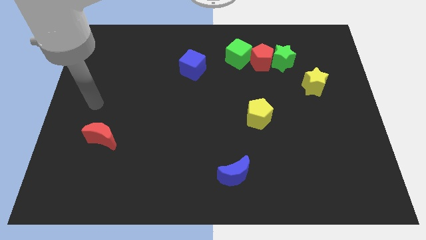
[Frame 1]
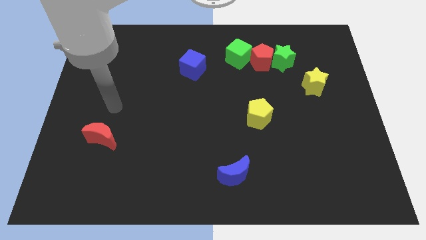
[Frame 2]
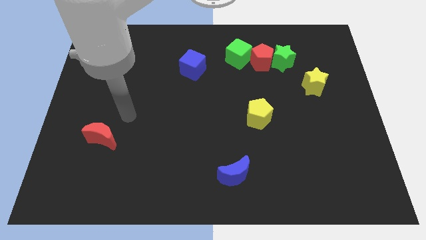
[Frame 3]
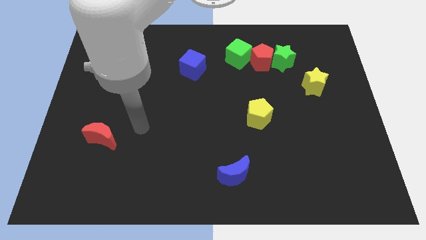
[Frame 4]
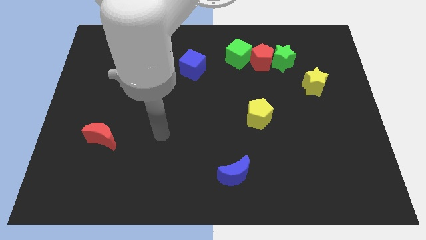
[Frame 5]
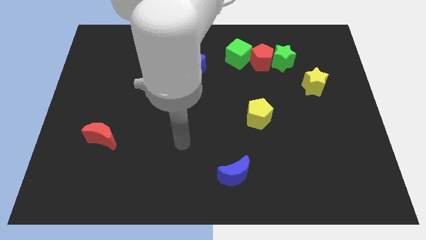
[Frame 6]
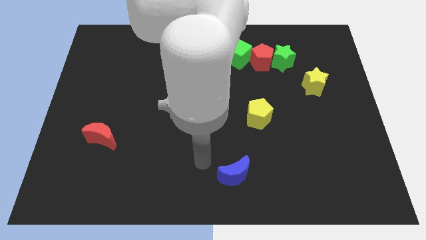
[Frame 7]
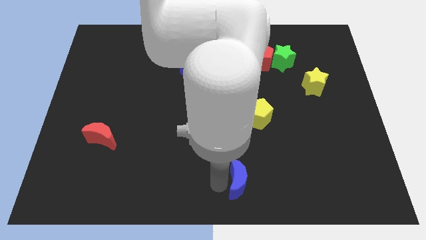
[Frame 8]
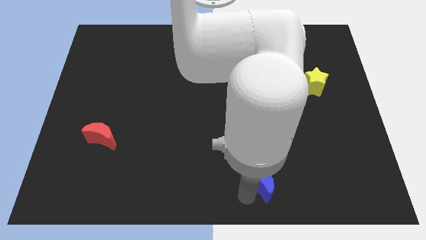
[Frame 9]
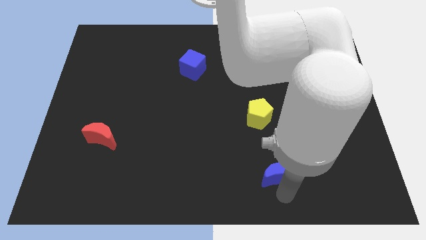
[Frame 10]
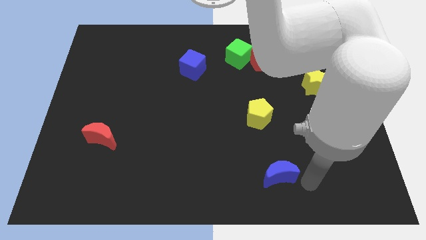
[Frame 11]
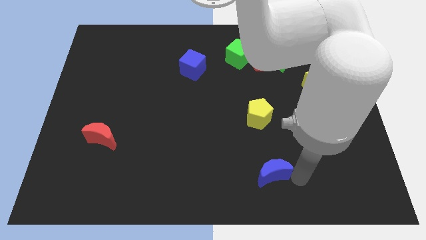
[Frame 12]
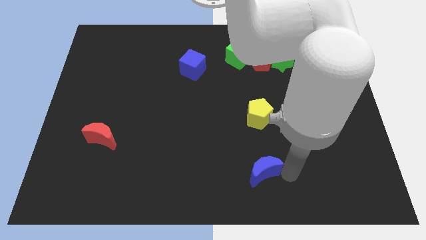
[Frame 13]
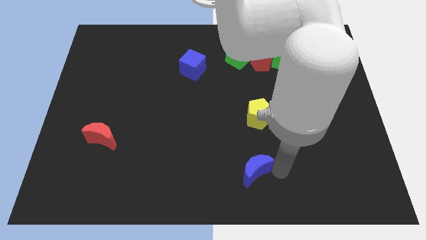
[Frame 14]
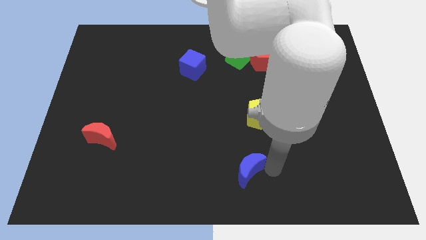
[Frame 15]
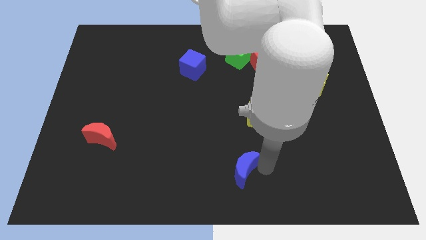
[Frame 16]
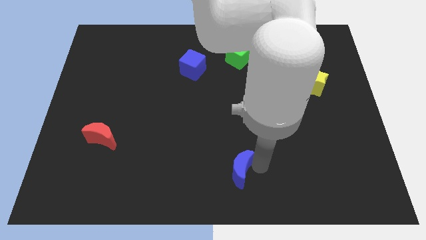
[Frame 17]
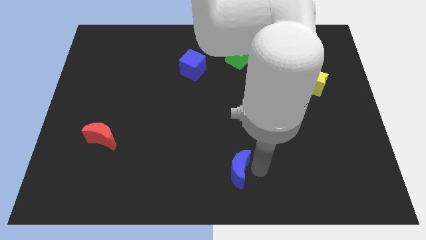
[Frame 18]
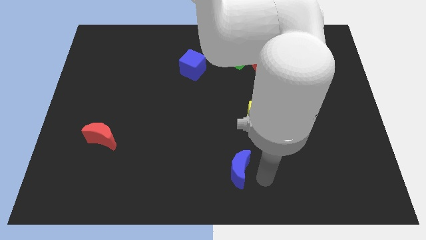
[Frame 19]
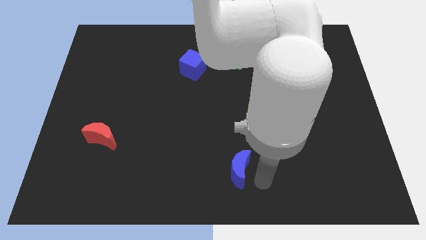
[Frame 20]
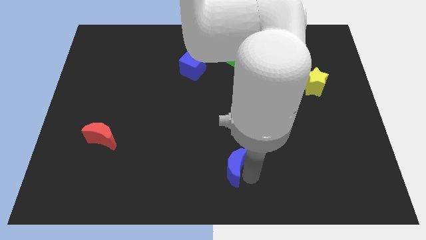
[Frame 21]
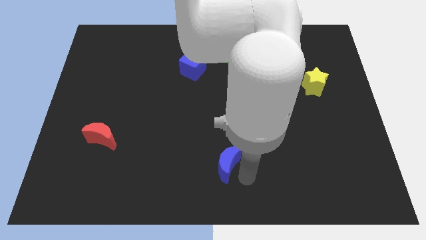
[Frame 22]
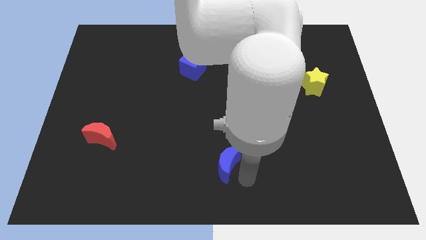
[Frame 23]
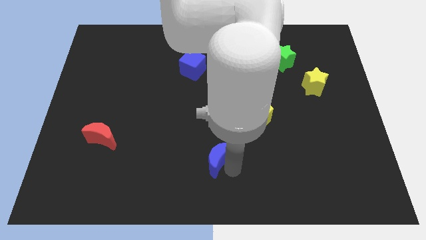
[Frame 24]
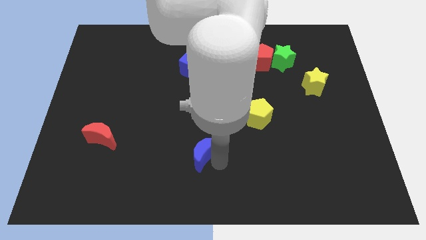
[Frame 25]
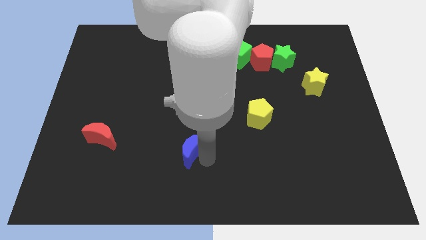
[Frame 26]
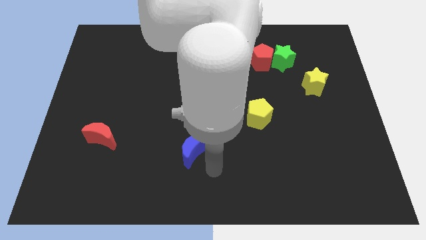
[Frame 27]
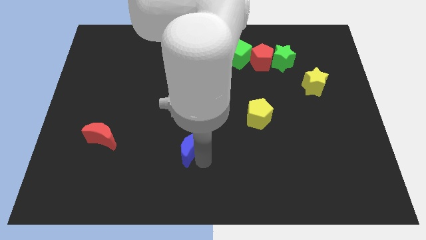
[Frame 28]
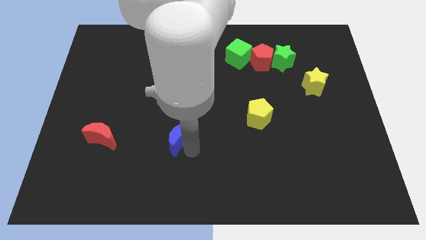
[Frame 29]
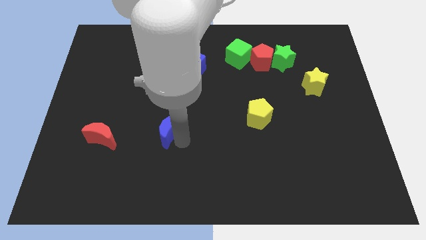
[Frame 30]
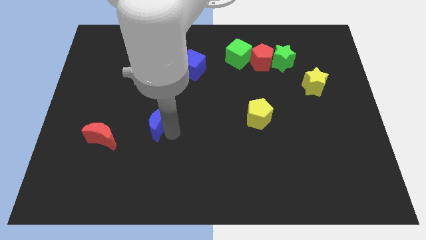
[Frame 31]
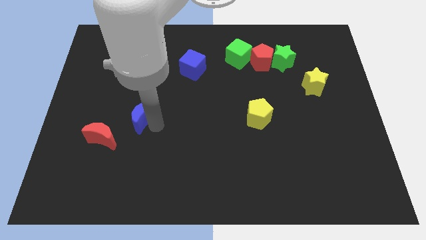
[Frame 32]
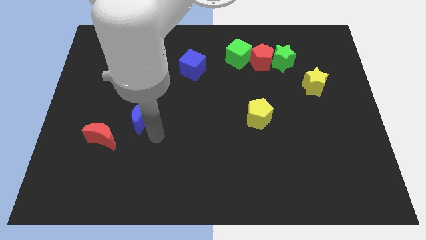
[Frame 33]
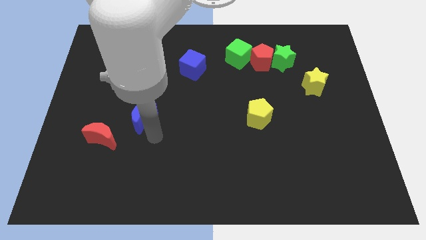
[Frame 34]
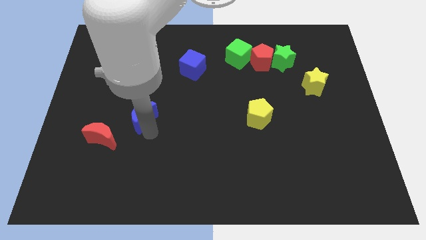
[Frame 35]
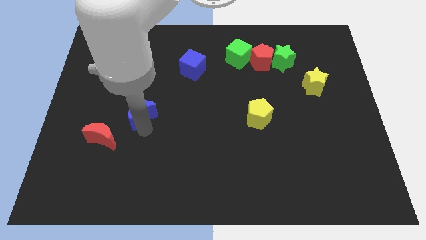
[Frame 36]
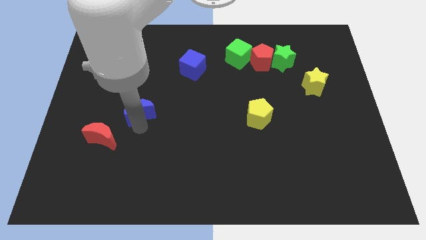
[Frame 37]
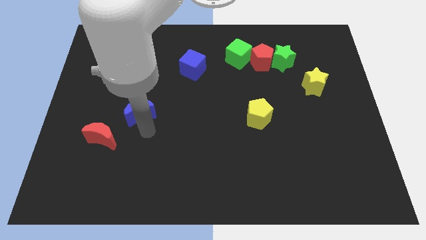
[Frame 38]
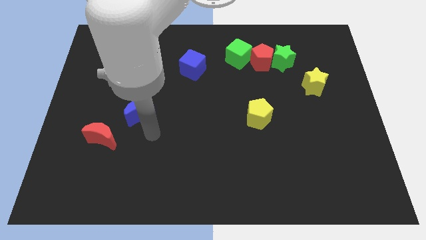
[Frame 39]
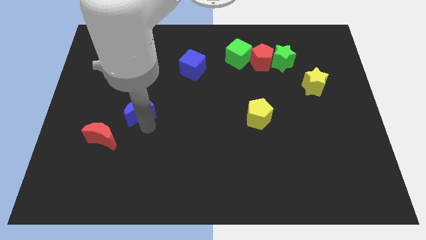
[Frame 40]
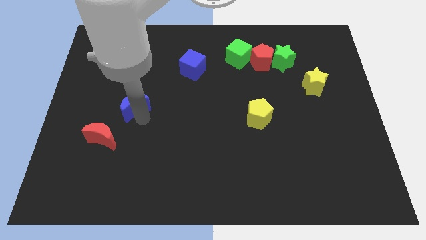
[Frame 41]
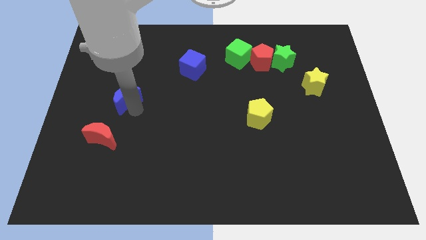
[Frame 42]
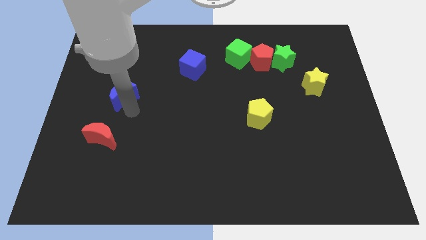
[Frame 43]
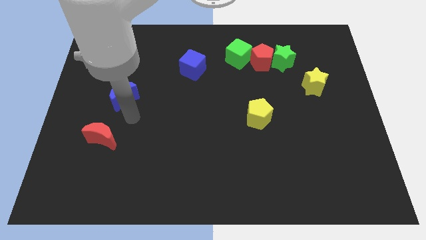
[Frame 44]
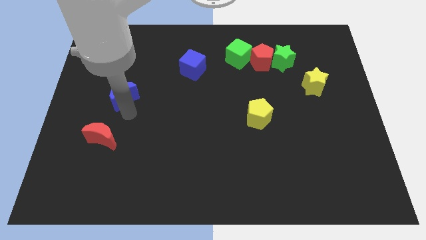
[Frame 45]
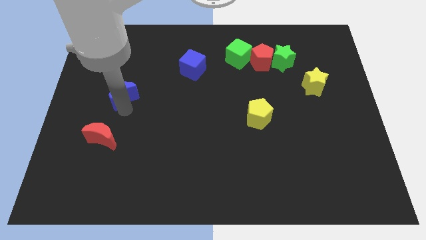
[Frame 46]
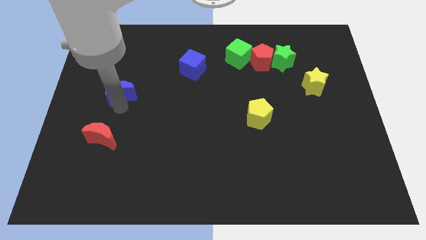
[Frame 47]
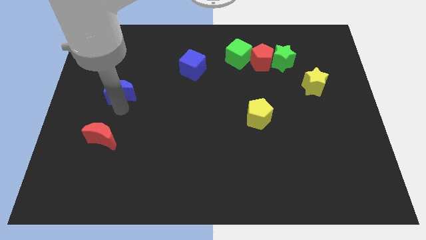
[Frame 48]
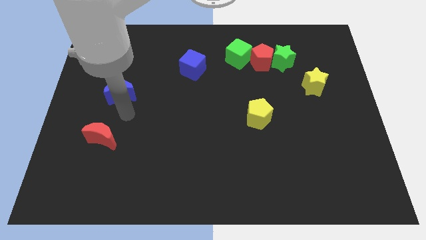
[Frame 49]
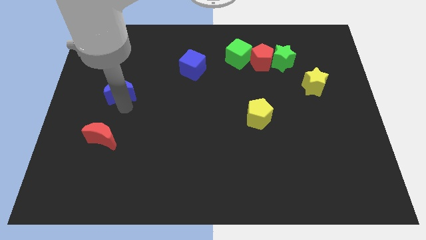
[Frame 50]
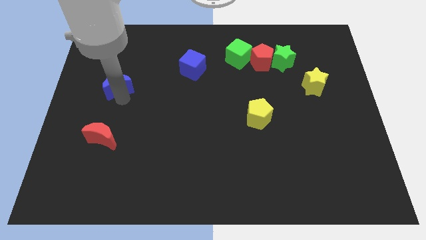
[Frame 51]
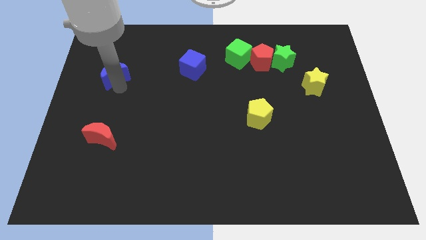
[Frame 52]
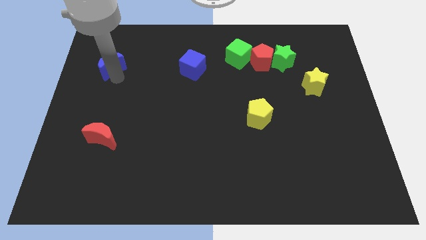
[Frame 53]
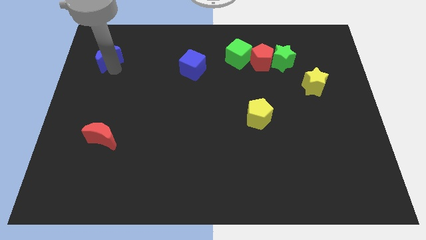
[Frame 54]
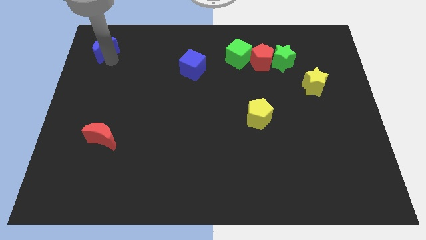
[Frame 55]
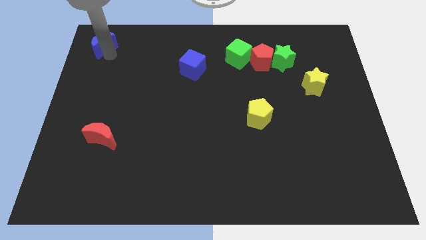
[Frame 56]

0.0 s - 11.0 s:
slide the blue moon to the top left of the board
